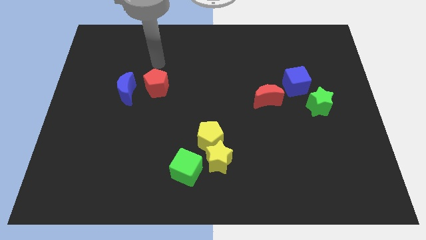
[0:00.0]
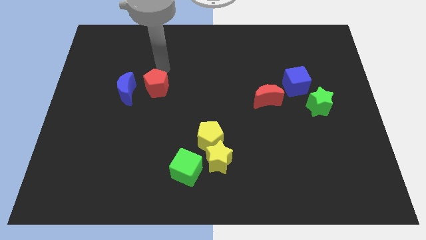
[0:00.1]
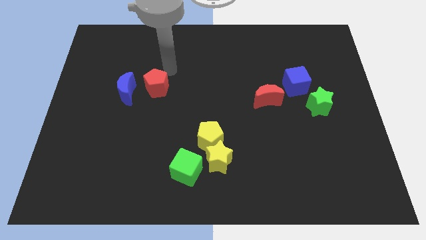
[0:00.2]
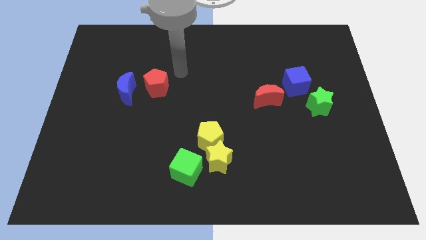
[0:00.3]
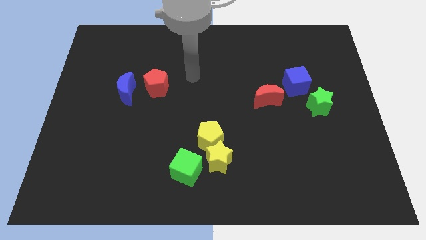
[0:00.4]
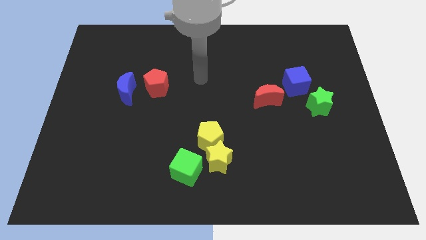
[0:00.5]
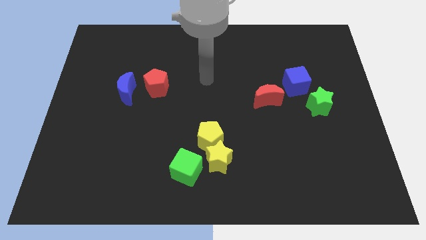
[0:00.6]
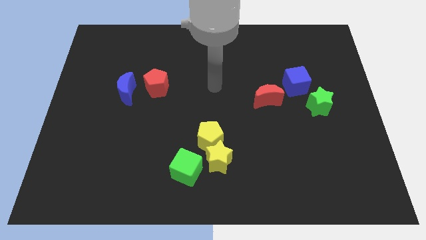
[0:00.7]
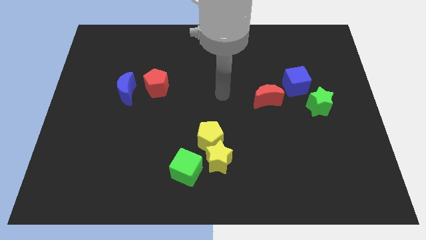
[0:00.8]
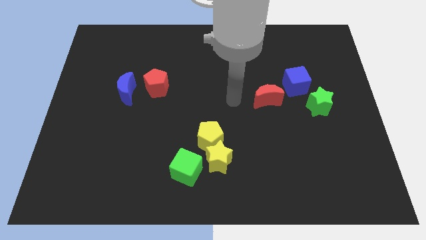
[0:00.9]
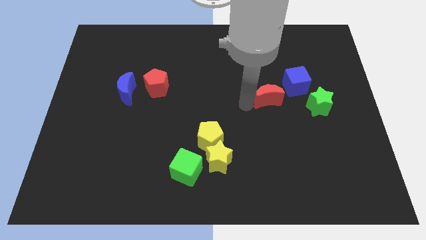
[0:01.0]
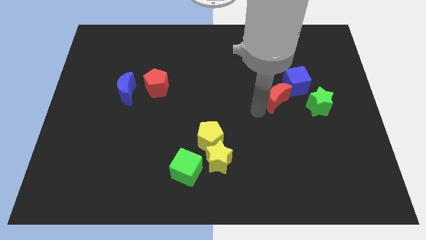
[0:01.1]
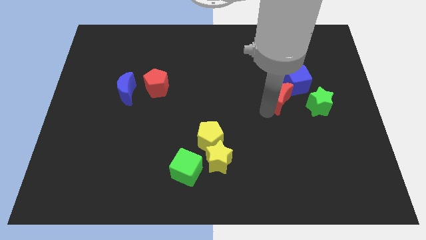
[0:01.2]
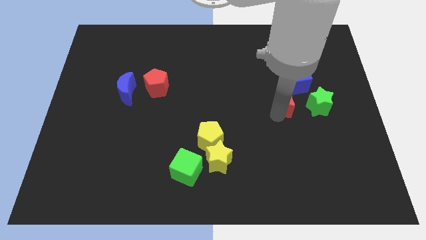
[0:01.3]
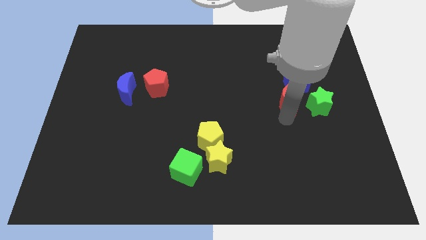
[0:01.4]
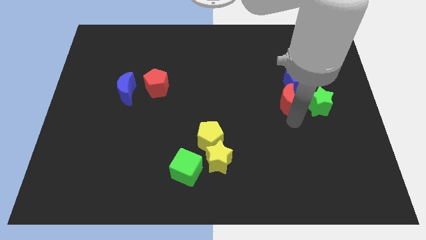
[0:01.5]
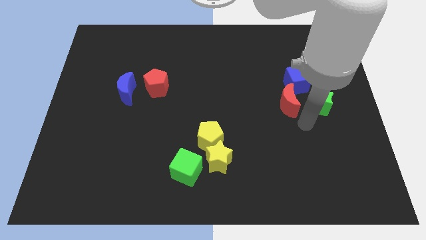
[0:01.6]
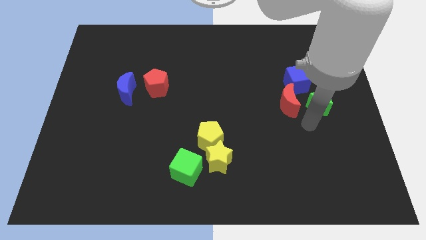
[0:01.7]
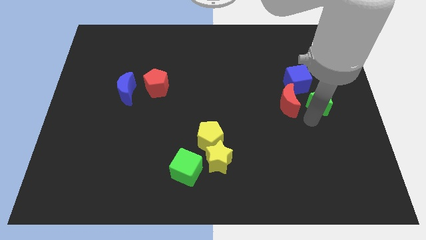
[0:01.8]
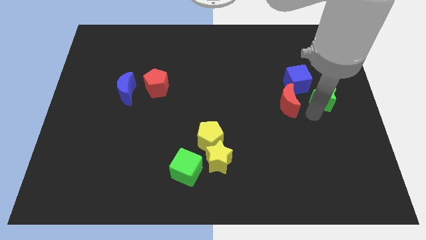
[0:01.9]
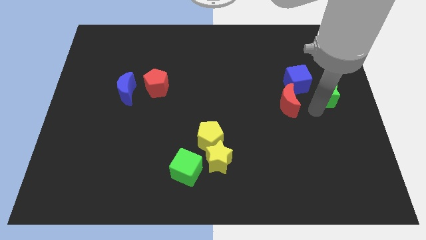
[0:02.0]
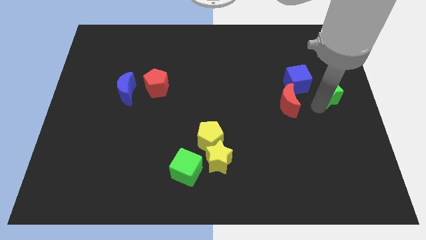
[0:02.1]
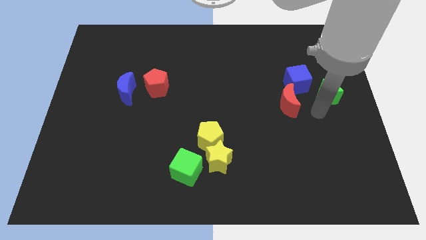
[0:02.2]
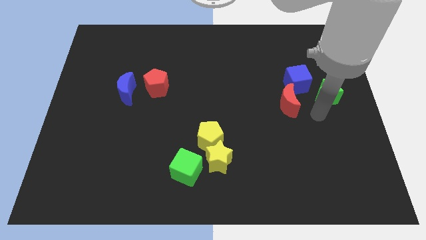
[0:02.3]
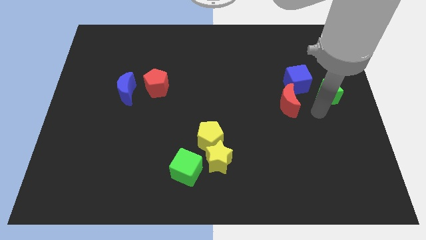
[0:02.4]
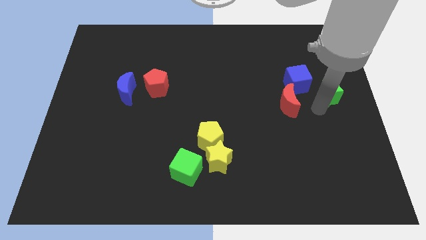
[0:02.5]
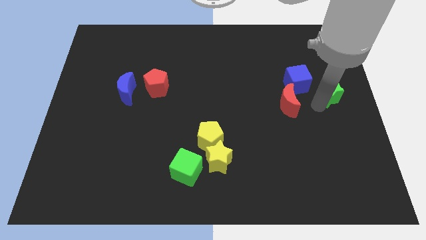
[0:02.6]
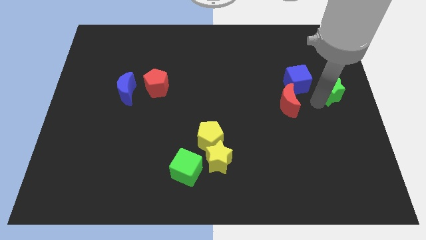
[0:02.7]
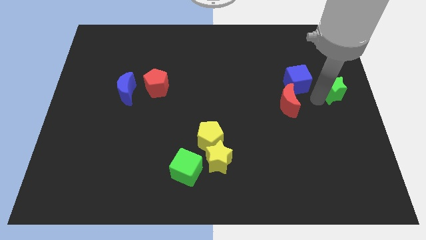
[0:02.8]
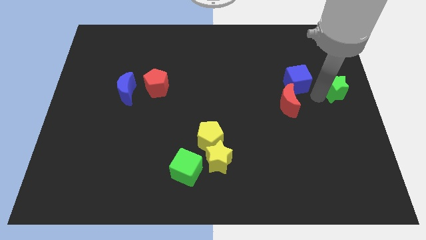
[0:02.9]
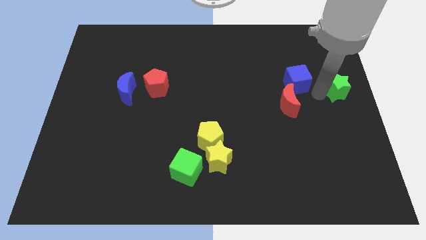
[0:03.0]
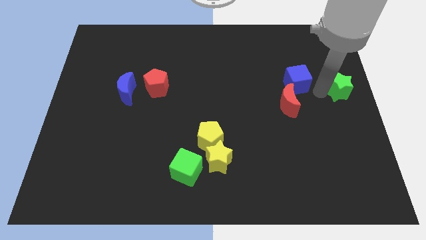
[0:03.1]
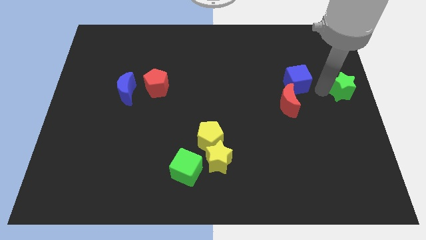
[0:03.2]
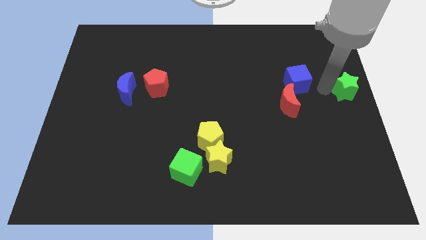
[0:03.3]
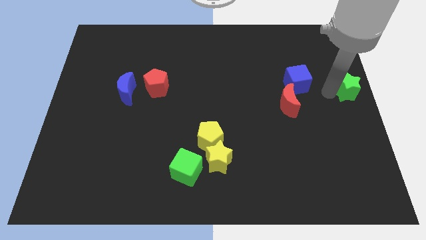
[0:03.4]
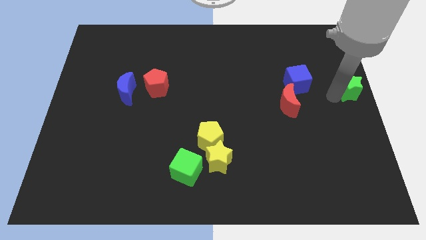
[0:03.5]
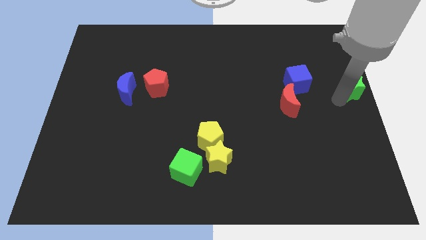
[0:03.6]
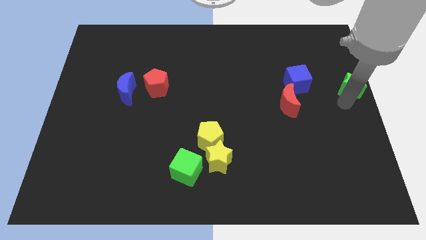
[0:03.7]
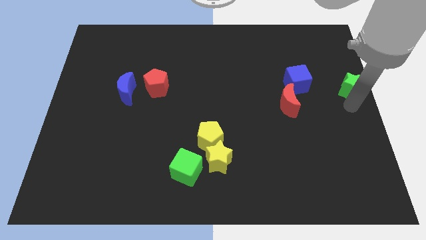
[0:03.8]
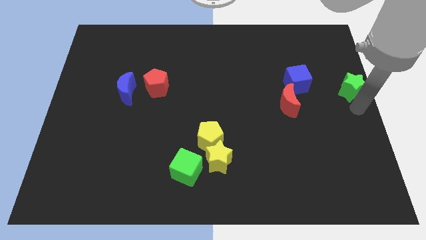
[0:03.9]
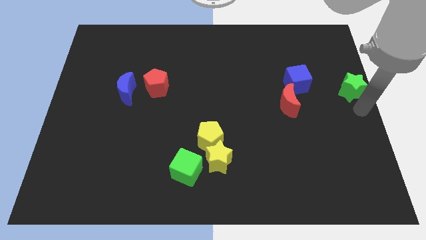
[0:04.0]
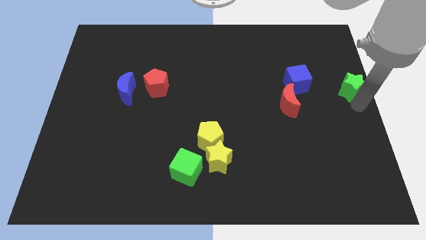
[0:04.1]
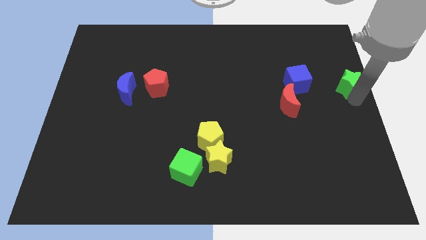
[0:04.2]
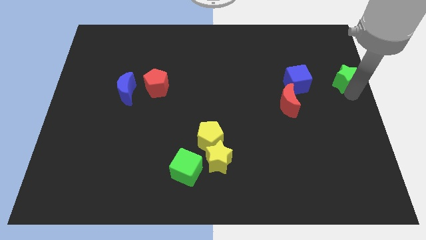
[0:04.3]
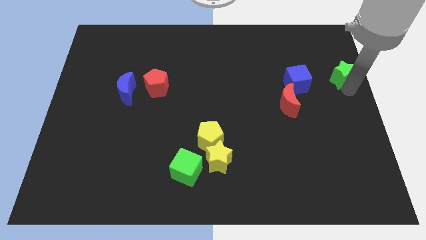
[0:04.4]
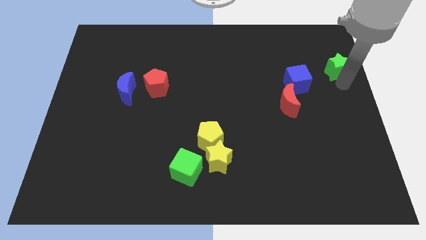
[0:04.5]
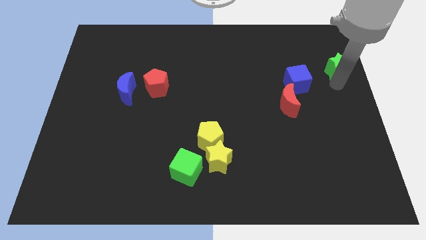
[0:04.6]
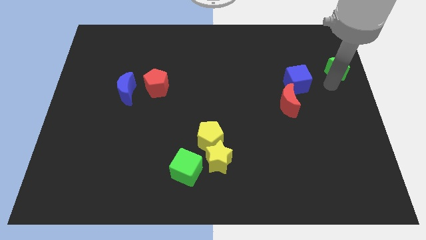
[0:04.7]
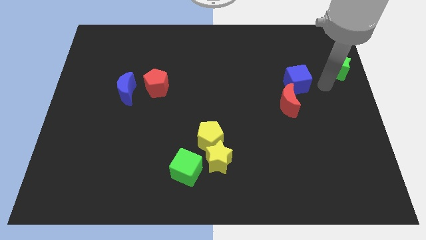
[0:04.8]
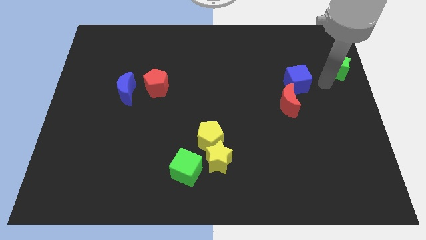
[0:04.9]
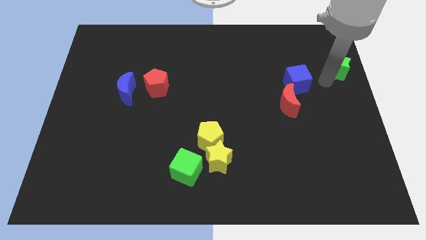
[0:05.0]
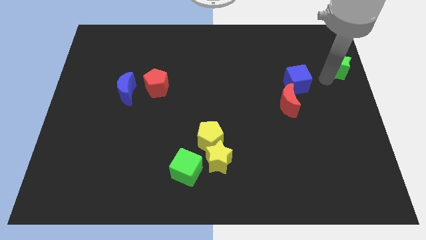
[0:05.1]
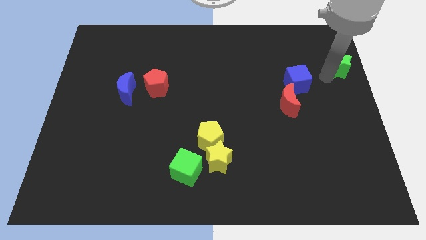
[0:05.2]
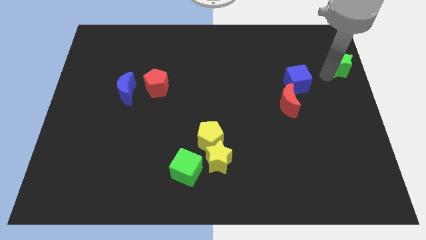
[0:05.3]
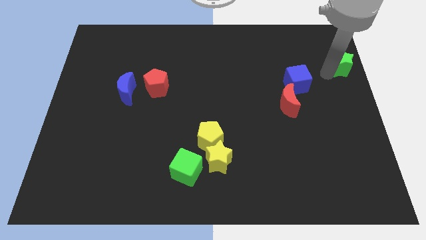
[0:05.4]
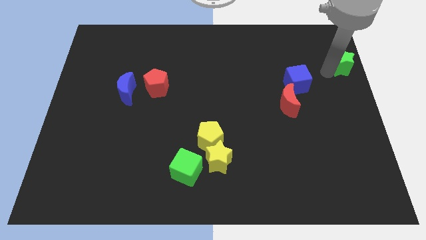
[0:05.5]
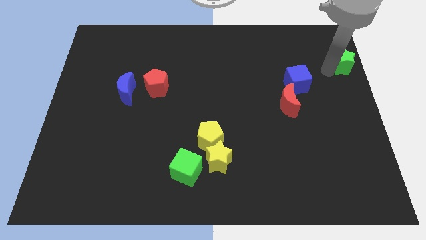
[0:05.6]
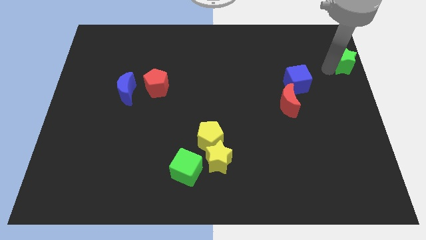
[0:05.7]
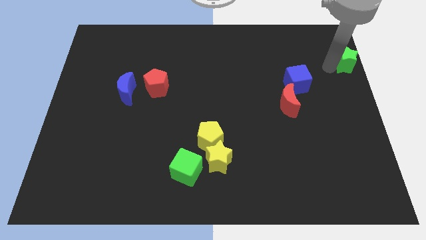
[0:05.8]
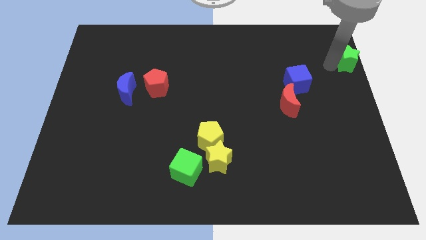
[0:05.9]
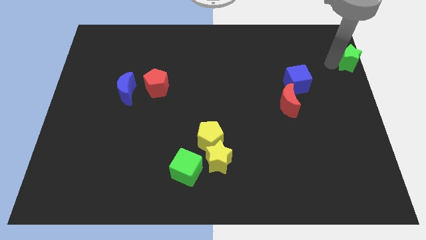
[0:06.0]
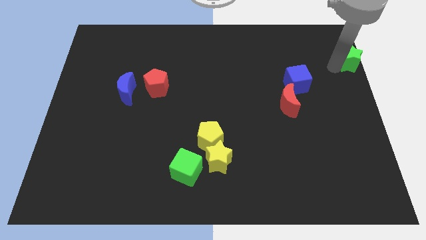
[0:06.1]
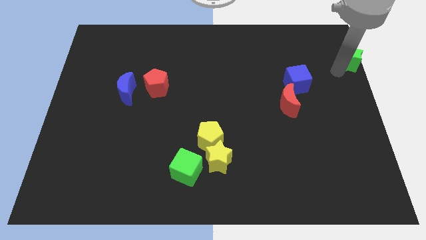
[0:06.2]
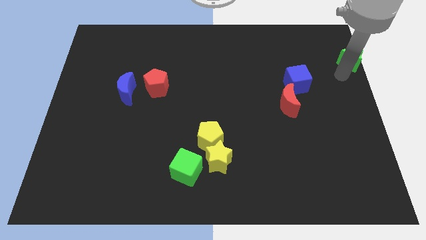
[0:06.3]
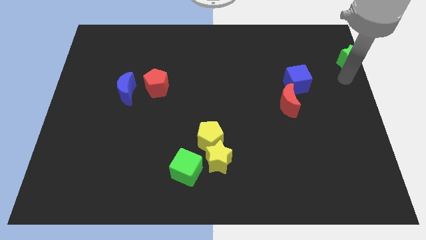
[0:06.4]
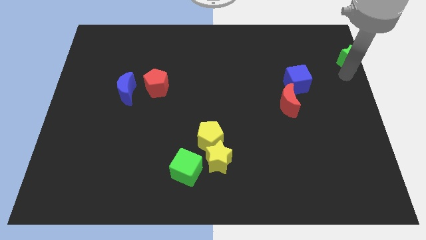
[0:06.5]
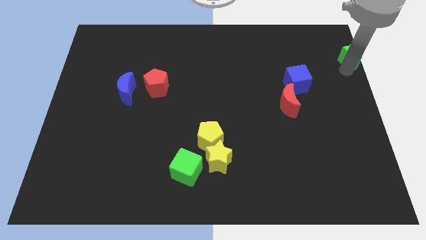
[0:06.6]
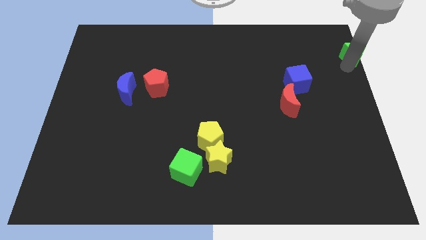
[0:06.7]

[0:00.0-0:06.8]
push the green star to the top right of the board
